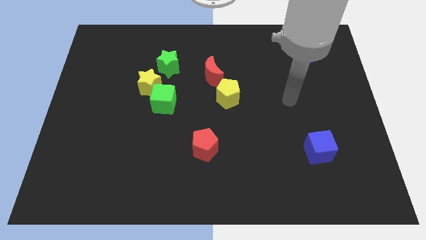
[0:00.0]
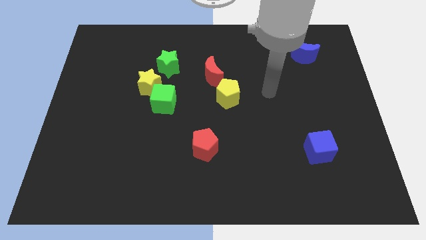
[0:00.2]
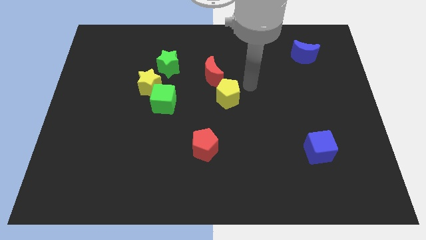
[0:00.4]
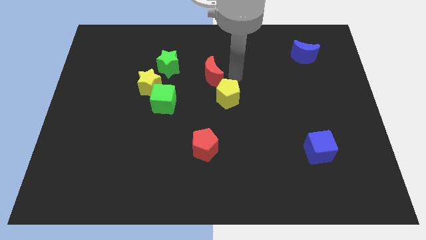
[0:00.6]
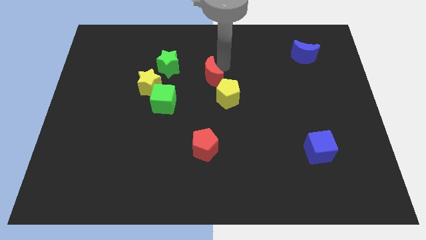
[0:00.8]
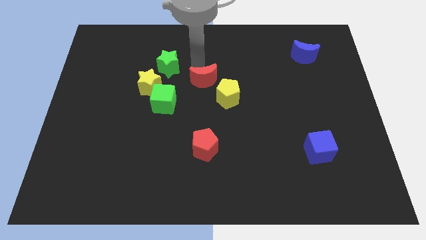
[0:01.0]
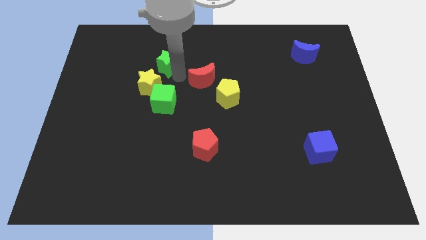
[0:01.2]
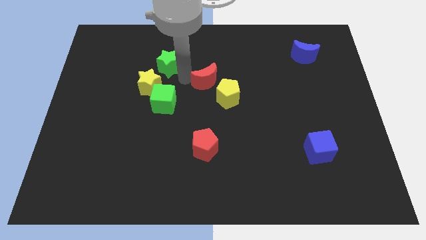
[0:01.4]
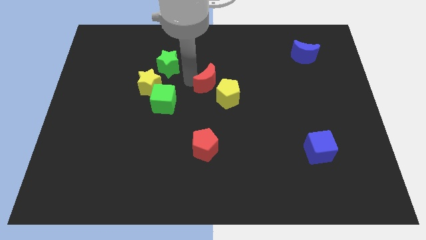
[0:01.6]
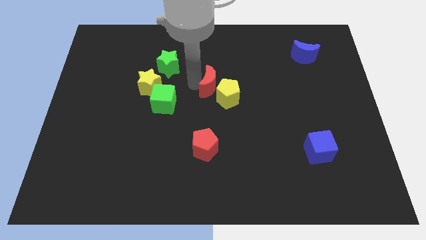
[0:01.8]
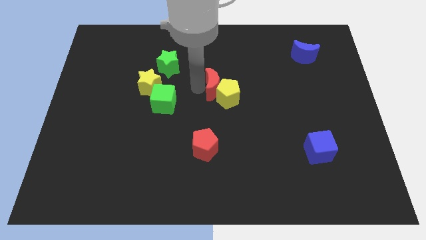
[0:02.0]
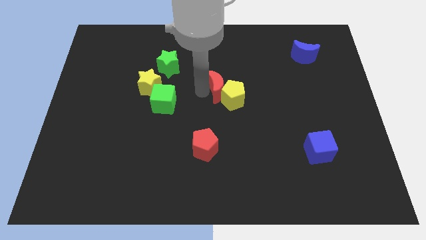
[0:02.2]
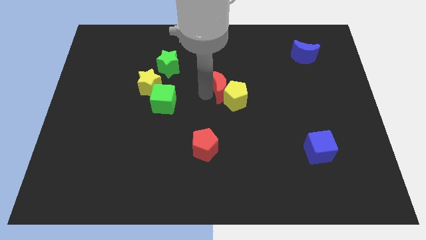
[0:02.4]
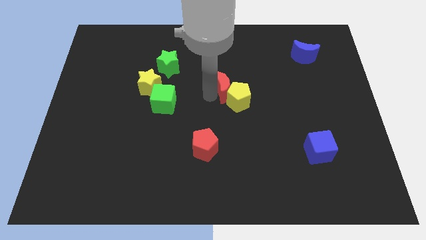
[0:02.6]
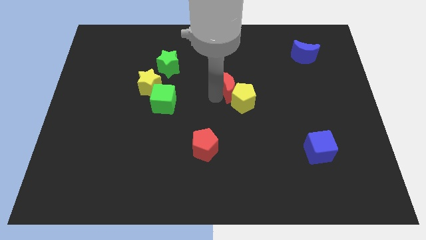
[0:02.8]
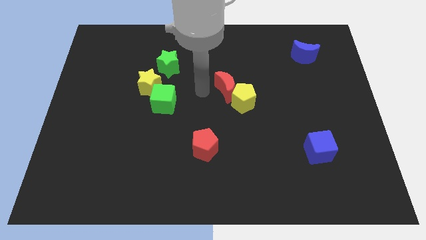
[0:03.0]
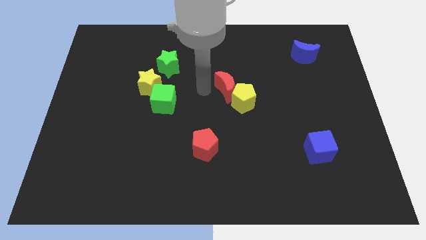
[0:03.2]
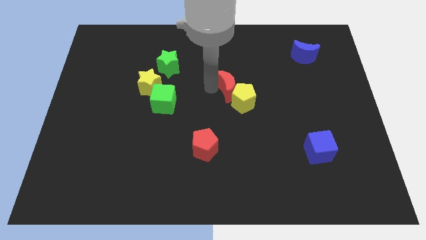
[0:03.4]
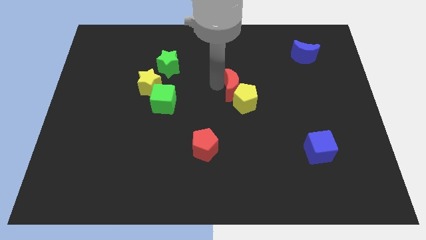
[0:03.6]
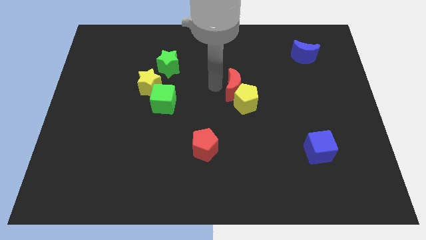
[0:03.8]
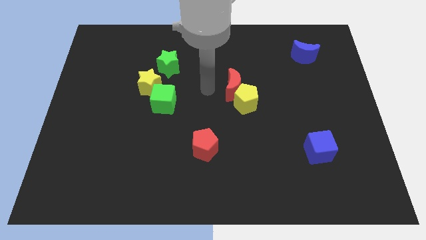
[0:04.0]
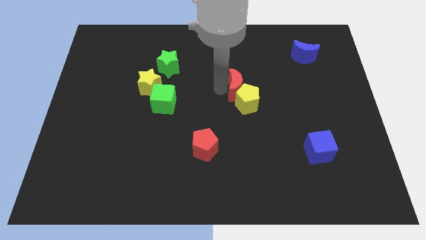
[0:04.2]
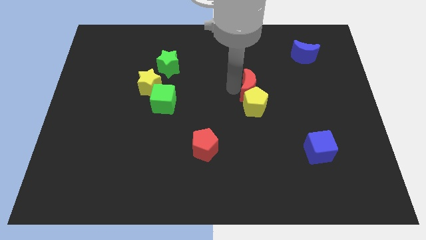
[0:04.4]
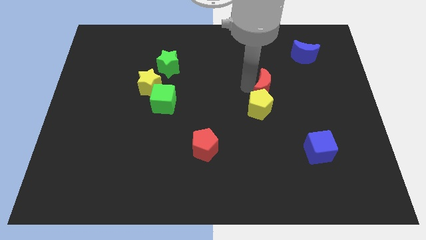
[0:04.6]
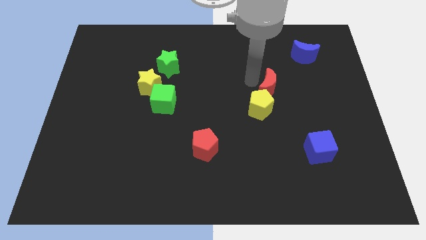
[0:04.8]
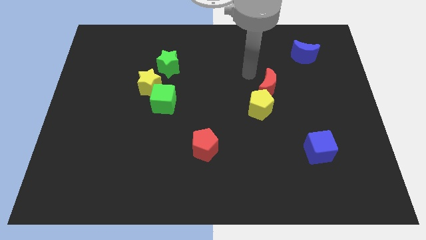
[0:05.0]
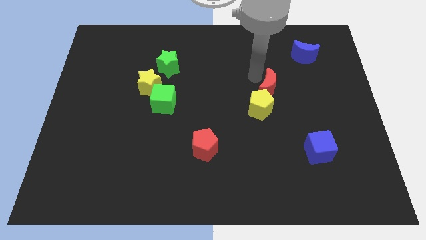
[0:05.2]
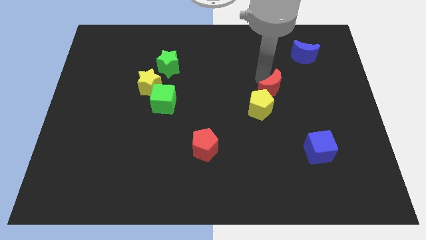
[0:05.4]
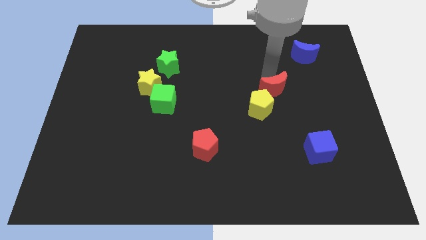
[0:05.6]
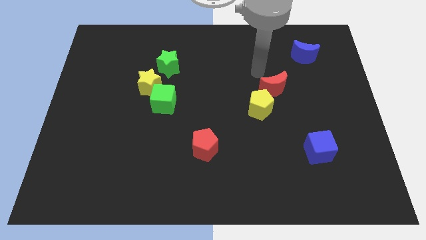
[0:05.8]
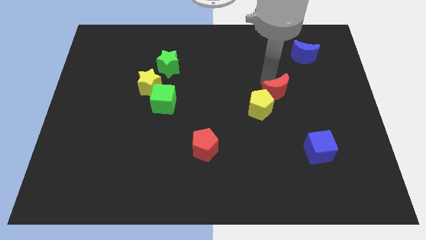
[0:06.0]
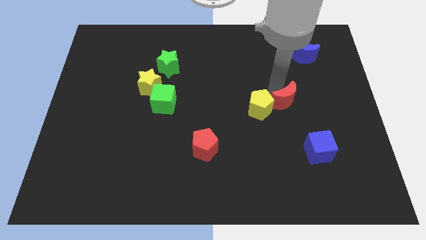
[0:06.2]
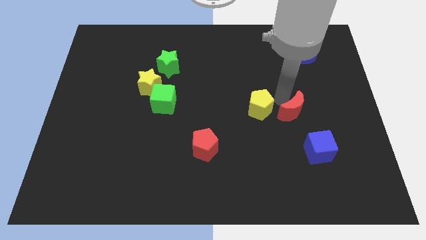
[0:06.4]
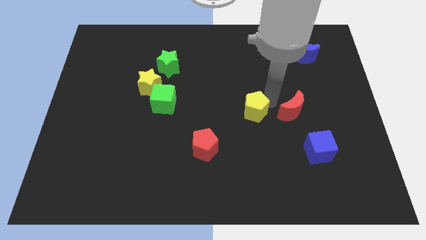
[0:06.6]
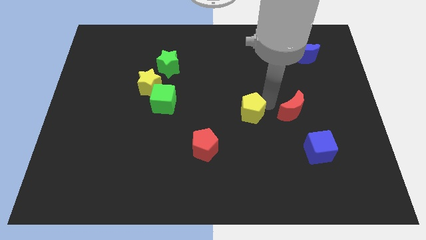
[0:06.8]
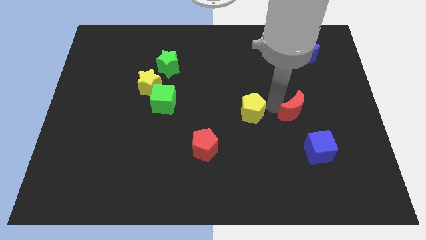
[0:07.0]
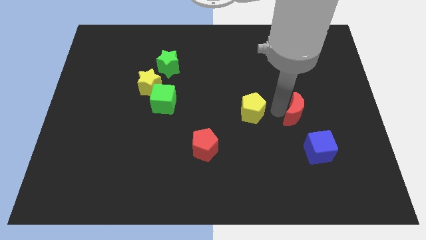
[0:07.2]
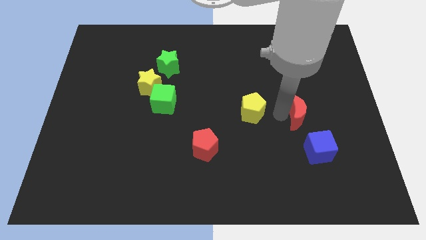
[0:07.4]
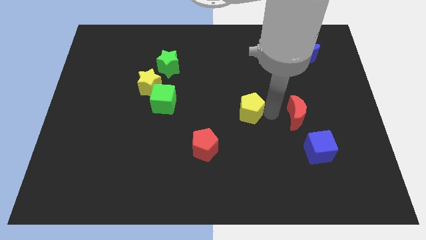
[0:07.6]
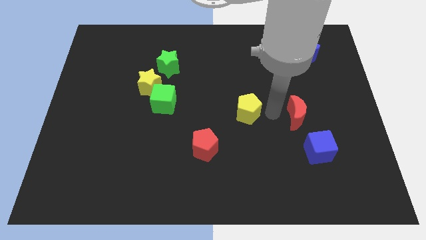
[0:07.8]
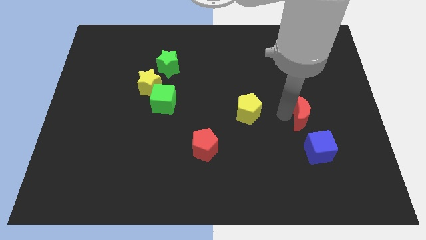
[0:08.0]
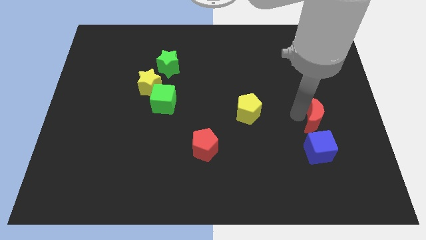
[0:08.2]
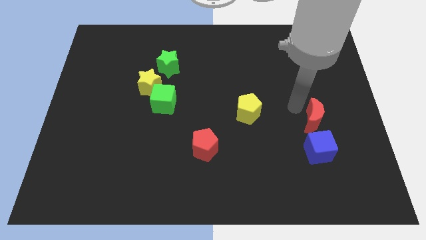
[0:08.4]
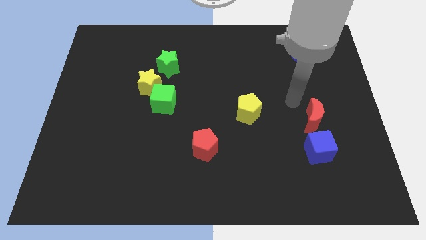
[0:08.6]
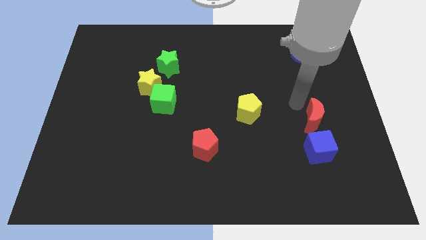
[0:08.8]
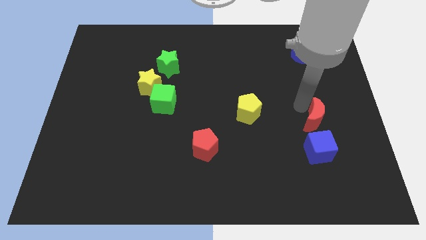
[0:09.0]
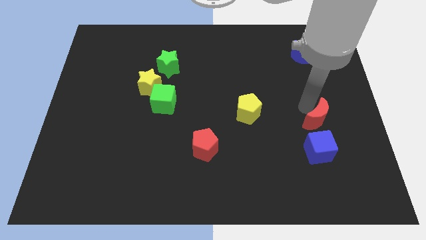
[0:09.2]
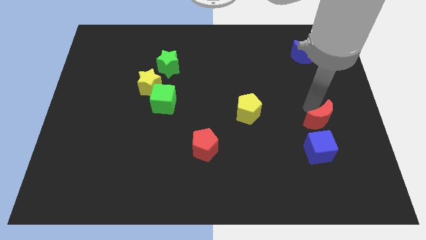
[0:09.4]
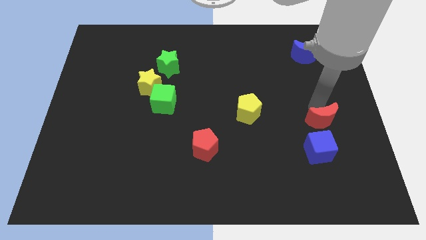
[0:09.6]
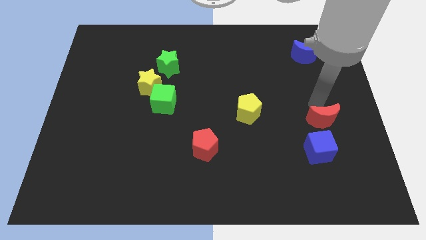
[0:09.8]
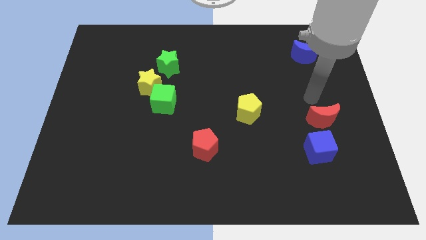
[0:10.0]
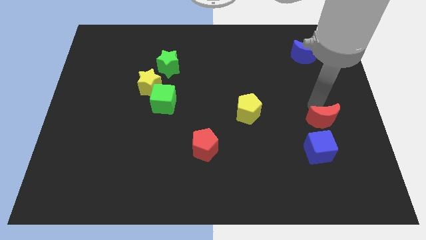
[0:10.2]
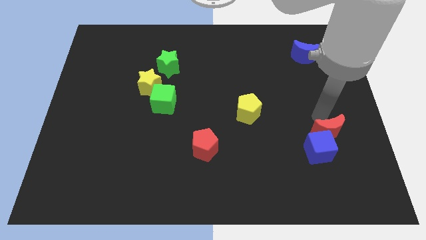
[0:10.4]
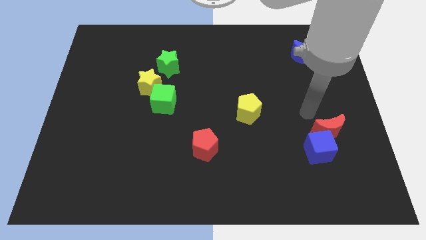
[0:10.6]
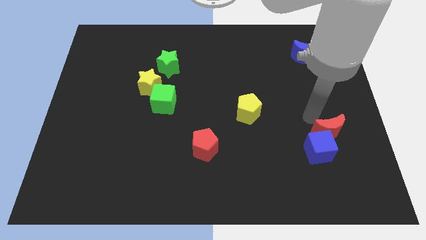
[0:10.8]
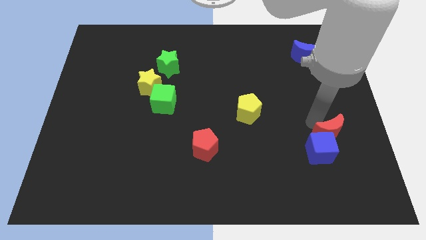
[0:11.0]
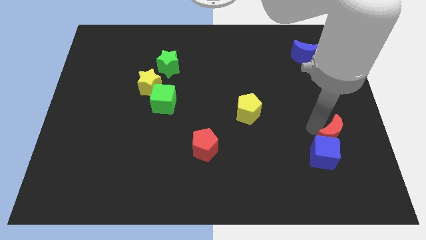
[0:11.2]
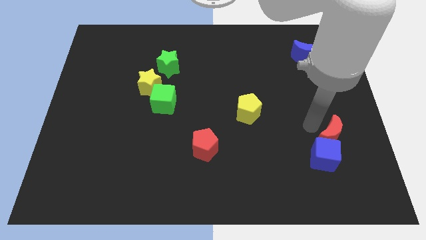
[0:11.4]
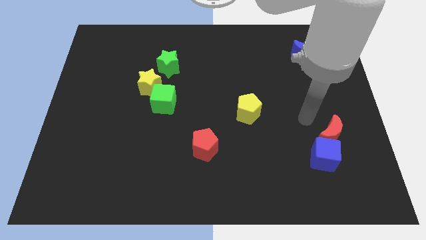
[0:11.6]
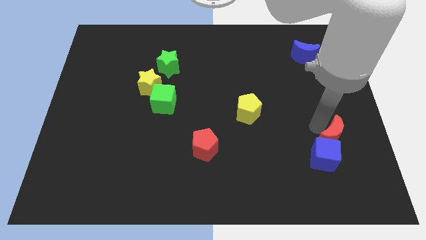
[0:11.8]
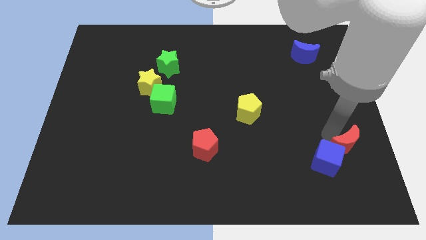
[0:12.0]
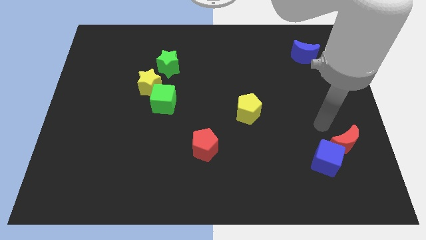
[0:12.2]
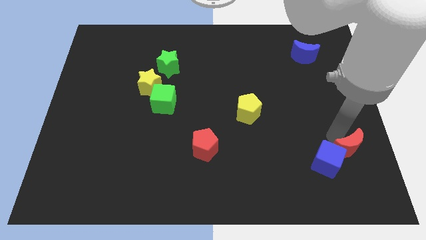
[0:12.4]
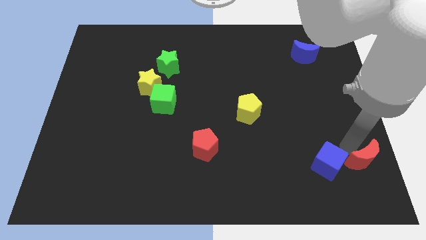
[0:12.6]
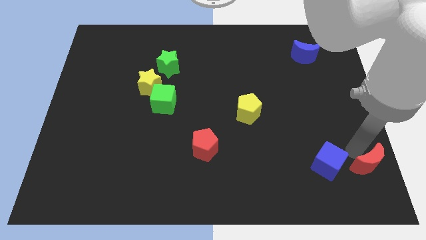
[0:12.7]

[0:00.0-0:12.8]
put the red moon to the lower right corner

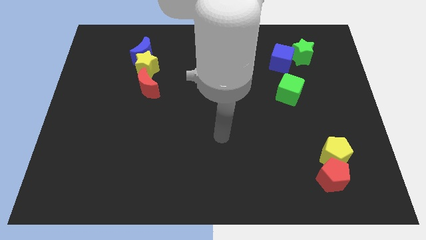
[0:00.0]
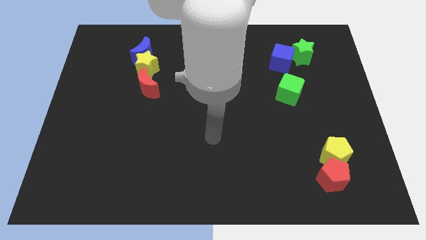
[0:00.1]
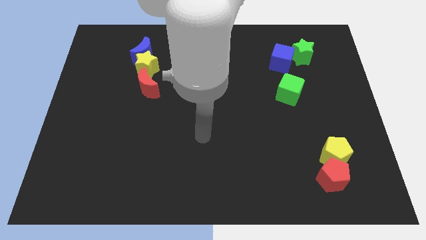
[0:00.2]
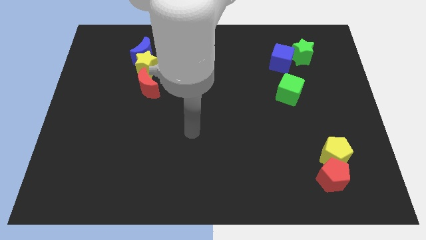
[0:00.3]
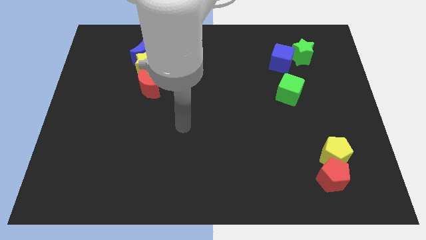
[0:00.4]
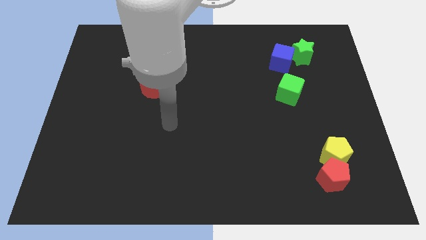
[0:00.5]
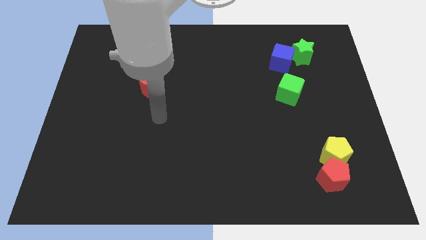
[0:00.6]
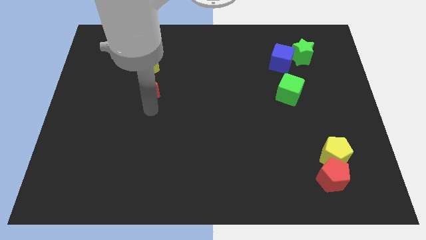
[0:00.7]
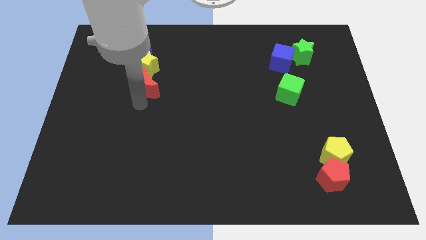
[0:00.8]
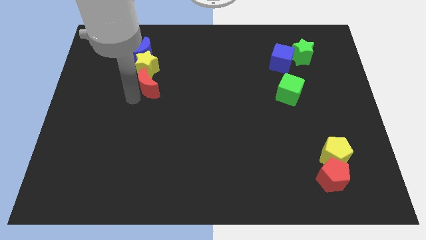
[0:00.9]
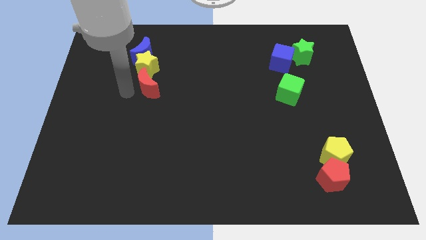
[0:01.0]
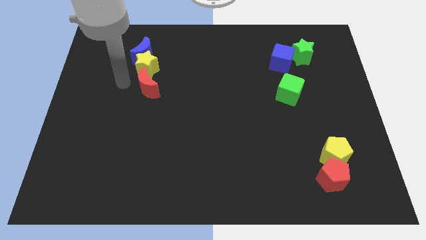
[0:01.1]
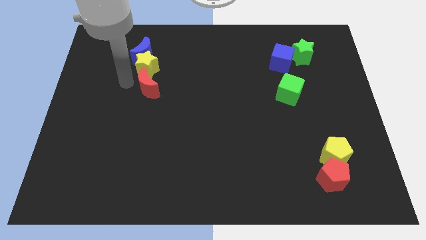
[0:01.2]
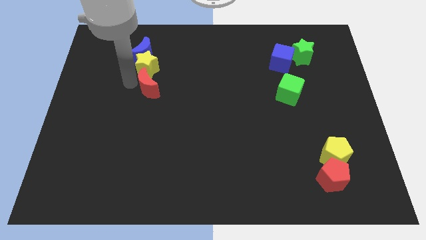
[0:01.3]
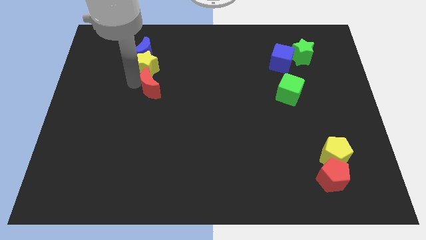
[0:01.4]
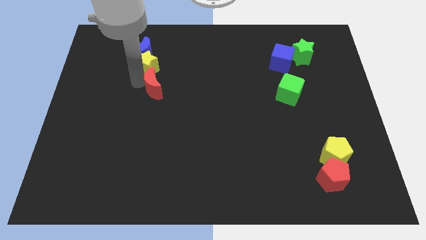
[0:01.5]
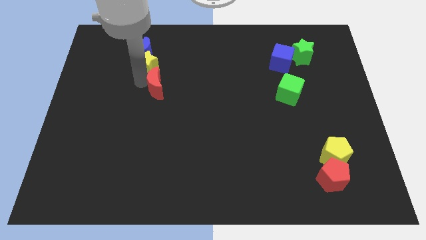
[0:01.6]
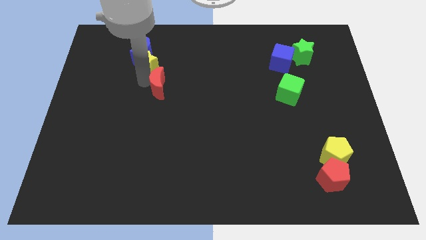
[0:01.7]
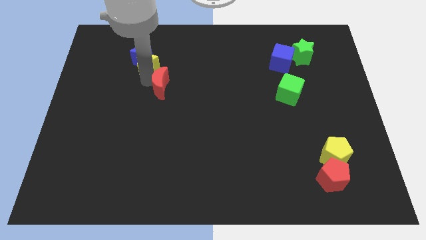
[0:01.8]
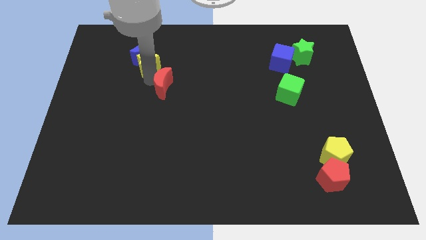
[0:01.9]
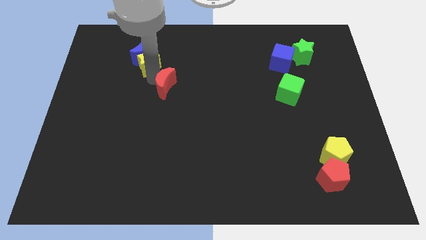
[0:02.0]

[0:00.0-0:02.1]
move the red moon to the middle
